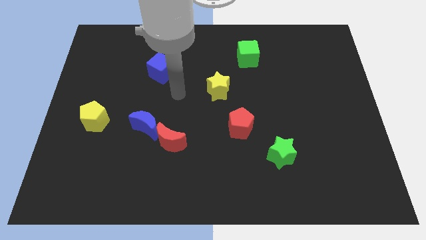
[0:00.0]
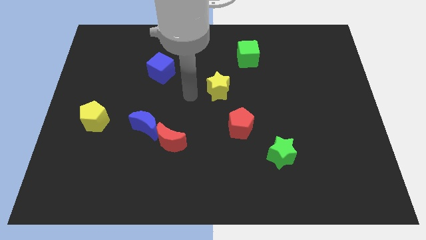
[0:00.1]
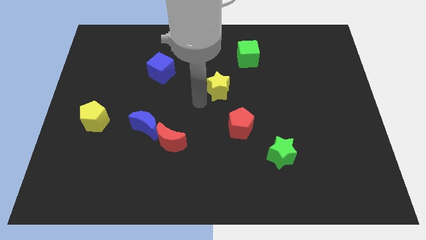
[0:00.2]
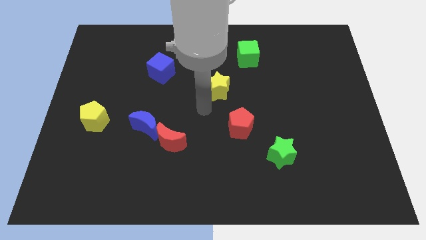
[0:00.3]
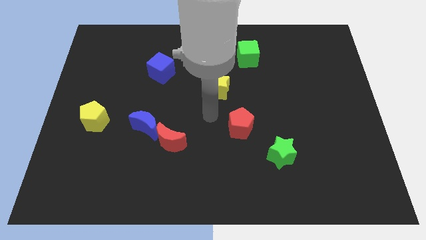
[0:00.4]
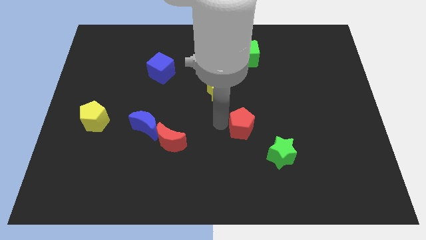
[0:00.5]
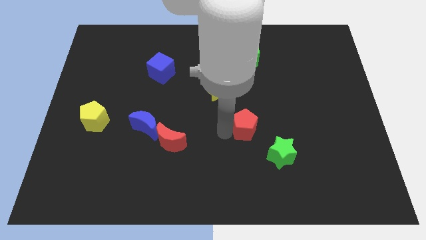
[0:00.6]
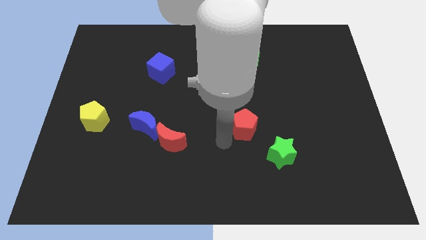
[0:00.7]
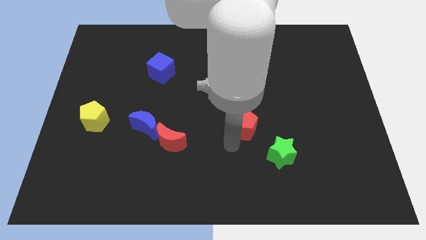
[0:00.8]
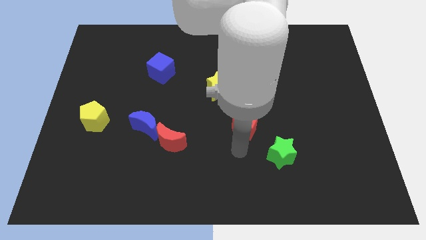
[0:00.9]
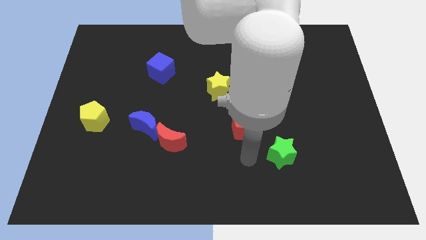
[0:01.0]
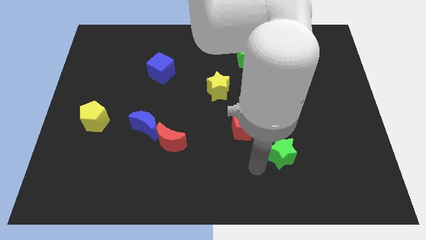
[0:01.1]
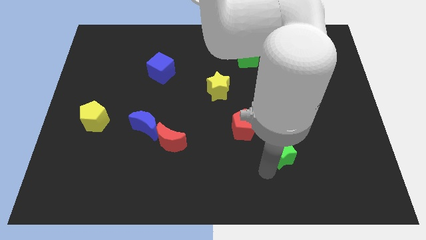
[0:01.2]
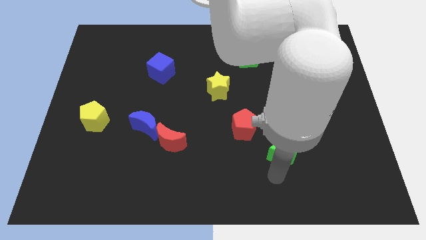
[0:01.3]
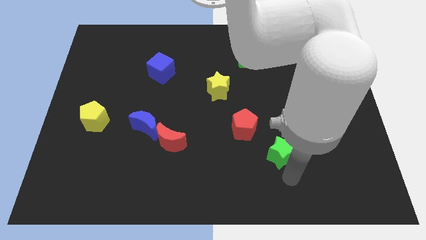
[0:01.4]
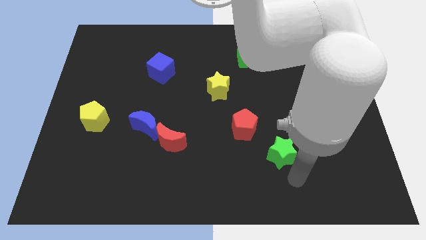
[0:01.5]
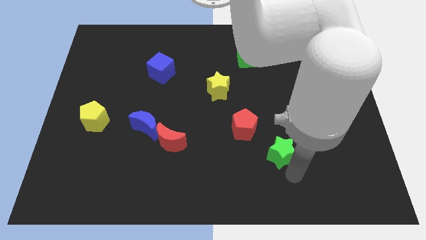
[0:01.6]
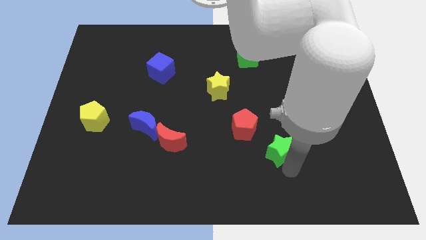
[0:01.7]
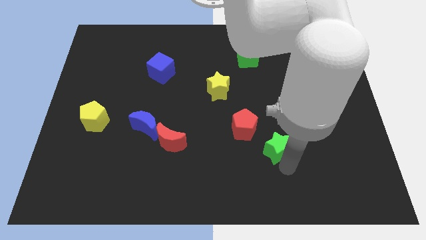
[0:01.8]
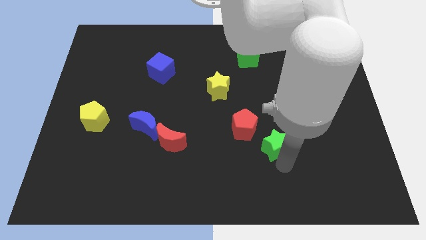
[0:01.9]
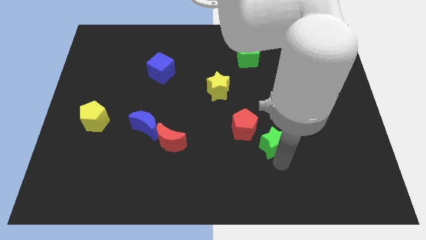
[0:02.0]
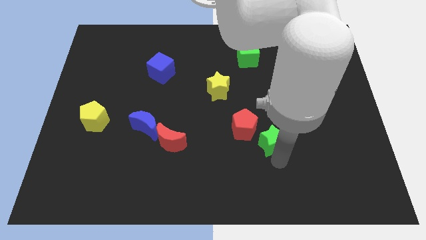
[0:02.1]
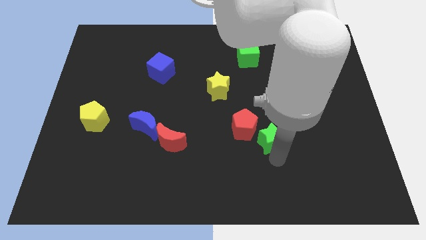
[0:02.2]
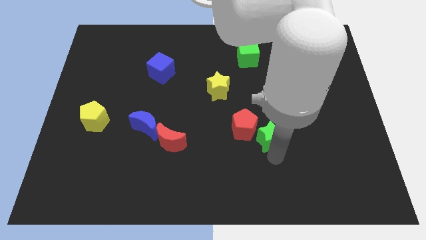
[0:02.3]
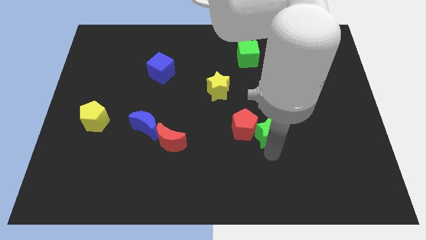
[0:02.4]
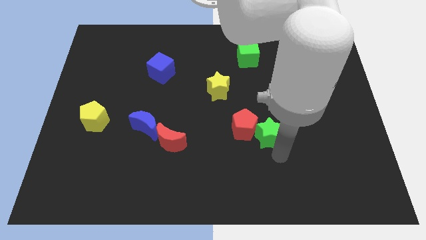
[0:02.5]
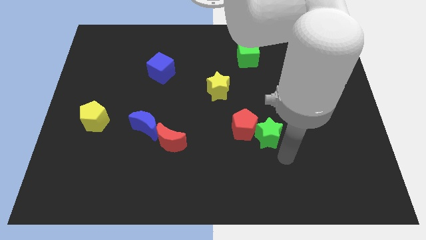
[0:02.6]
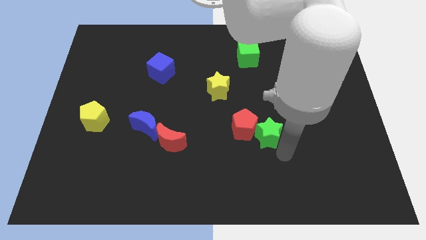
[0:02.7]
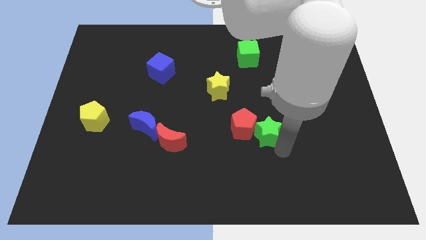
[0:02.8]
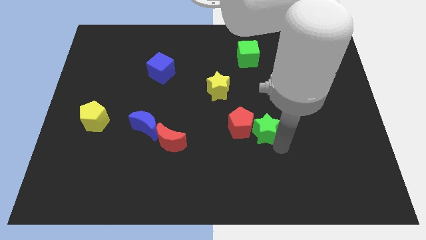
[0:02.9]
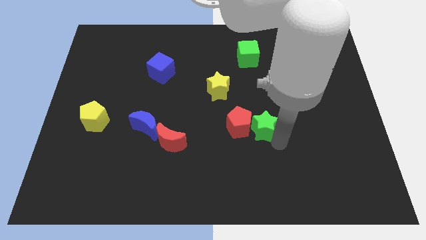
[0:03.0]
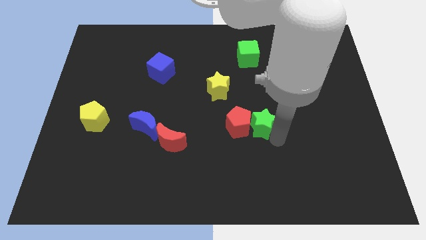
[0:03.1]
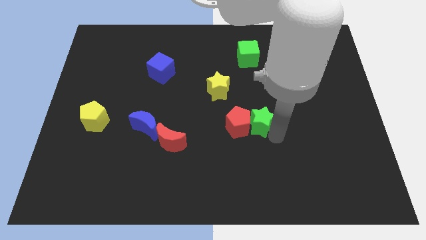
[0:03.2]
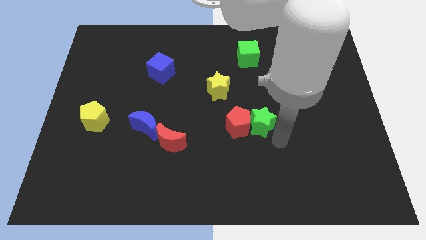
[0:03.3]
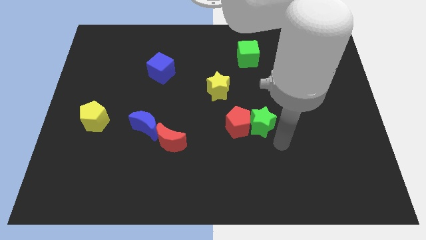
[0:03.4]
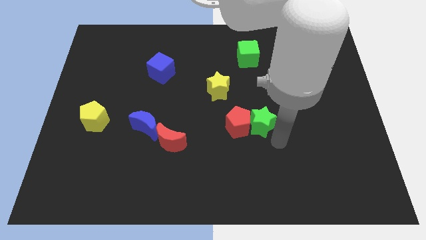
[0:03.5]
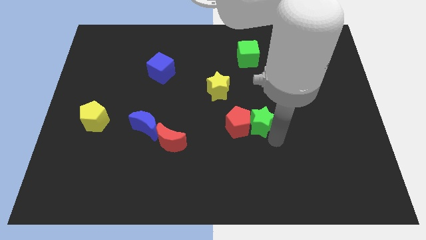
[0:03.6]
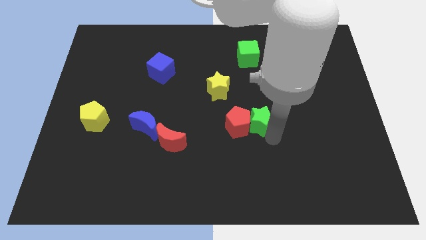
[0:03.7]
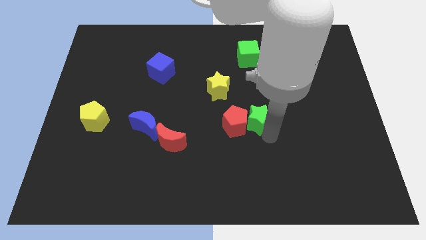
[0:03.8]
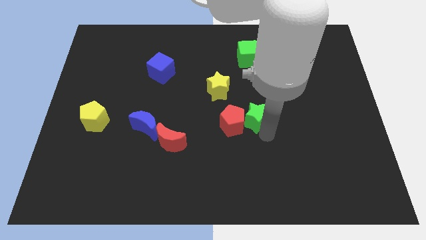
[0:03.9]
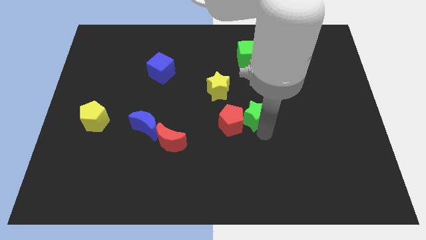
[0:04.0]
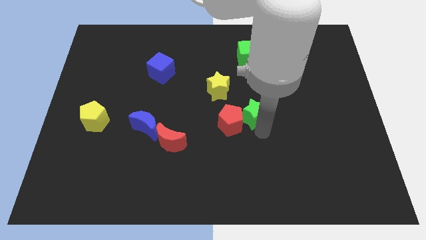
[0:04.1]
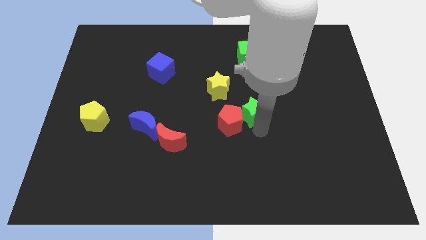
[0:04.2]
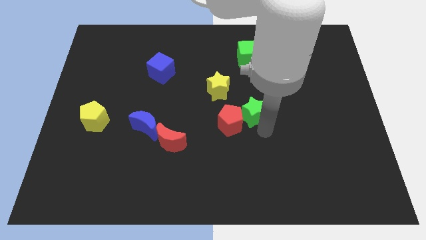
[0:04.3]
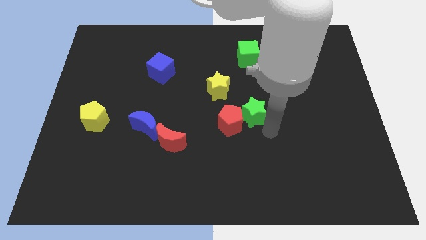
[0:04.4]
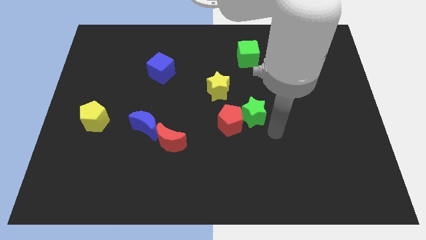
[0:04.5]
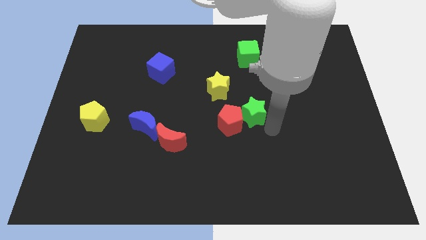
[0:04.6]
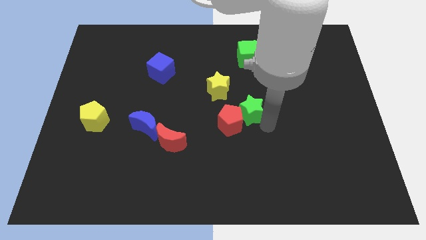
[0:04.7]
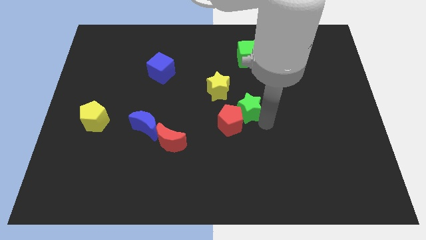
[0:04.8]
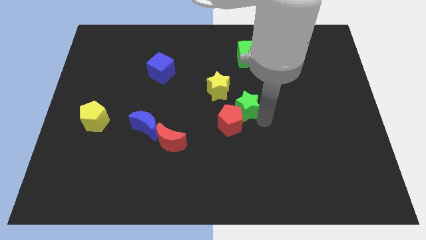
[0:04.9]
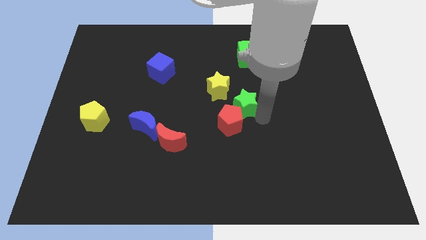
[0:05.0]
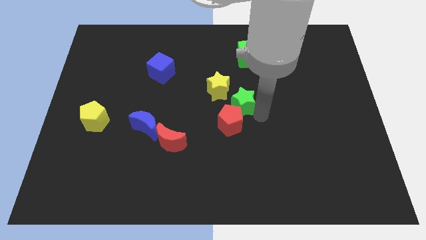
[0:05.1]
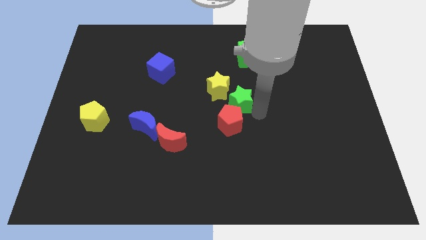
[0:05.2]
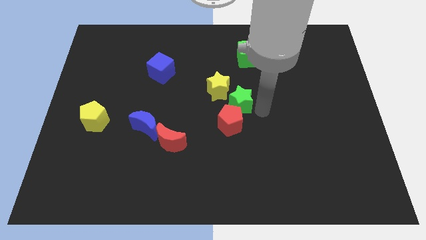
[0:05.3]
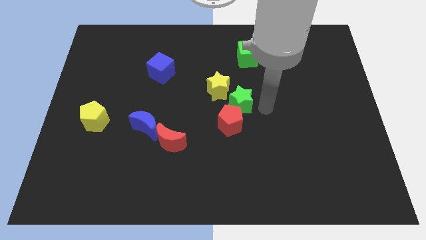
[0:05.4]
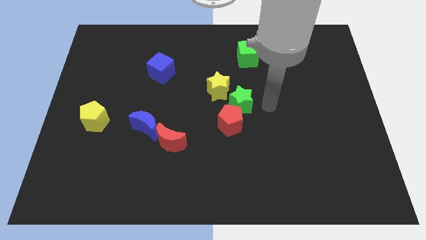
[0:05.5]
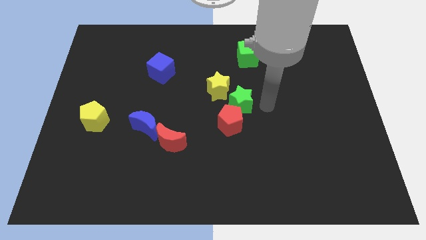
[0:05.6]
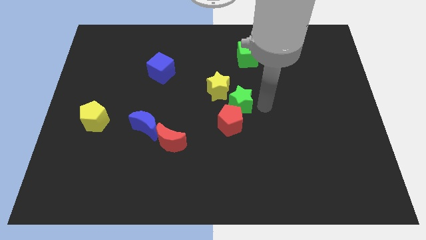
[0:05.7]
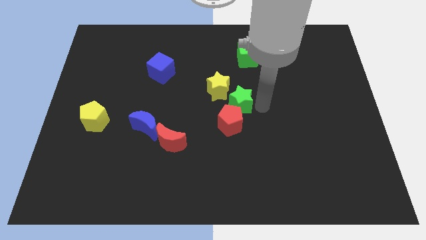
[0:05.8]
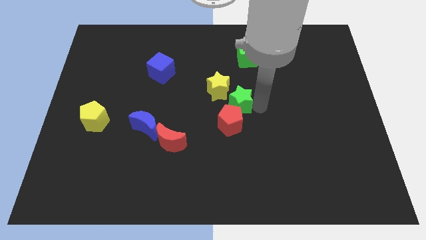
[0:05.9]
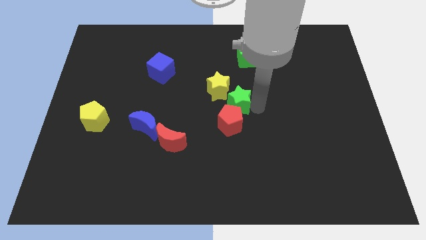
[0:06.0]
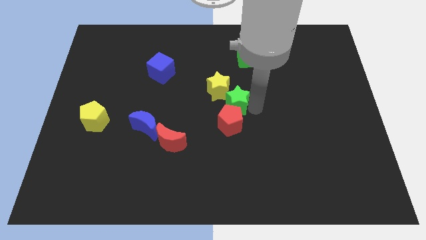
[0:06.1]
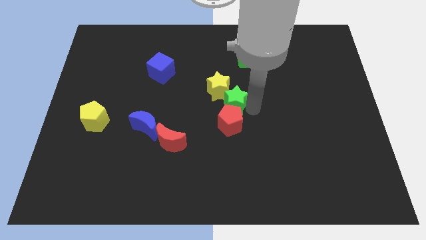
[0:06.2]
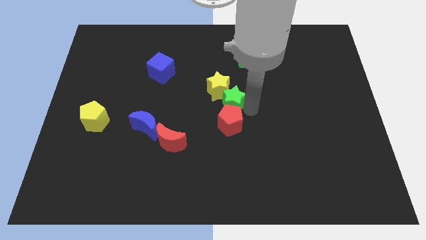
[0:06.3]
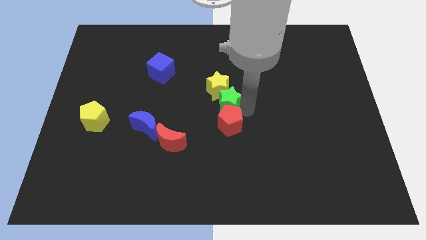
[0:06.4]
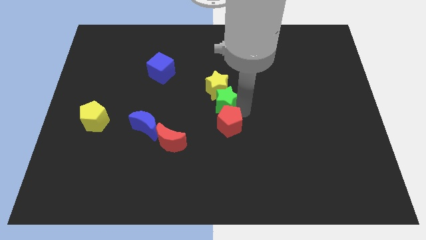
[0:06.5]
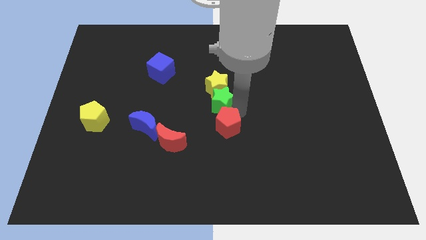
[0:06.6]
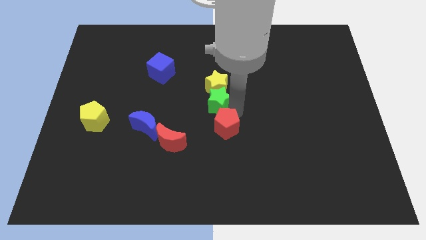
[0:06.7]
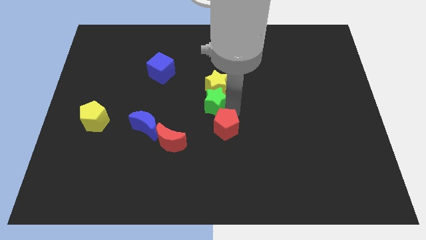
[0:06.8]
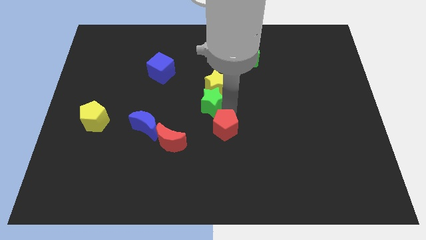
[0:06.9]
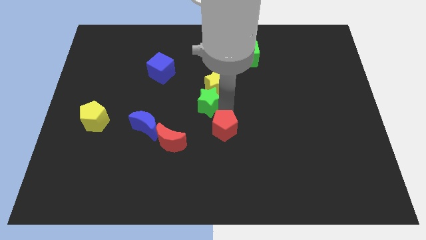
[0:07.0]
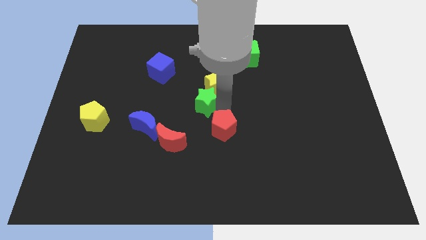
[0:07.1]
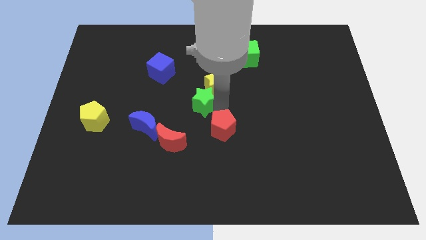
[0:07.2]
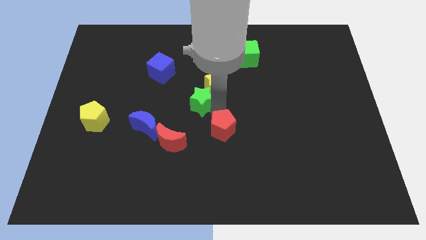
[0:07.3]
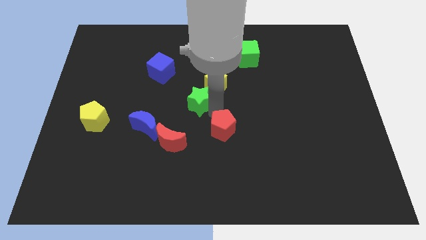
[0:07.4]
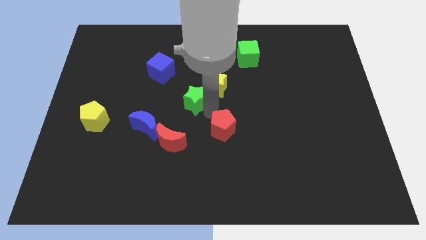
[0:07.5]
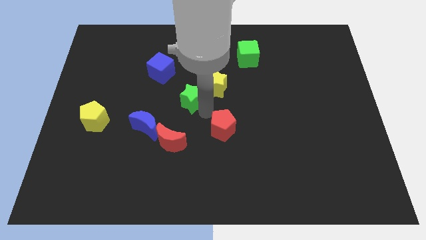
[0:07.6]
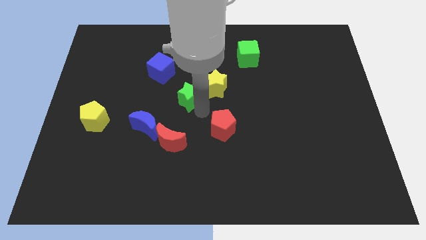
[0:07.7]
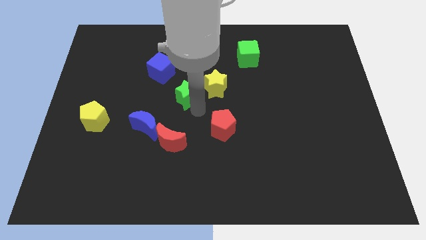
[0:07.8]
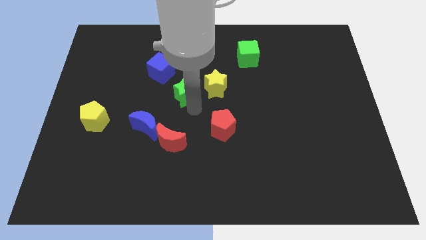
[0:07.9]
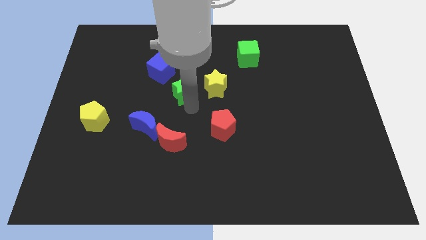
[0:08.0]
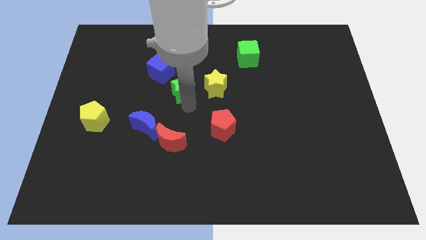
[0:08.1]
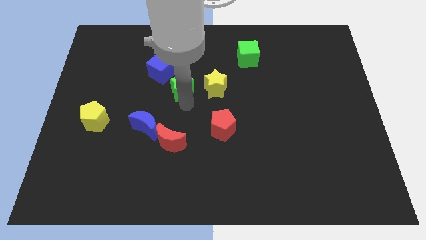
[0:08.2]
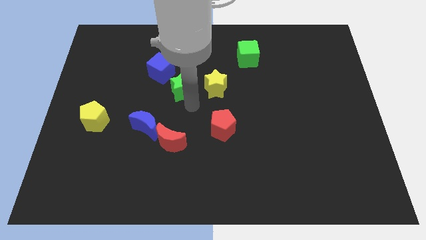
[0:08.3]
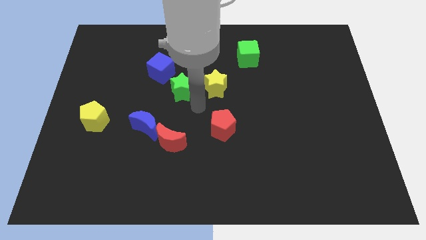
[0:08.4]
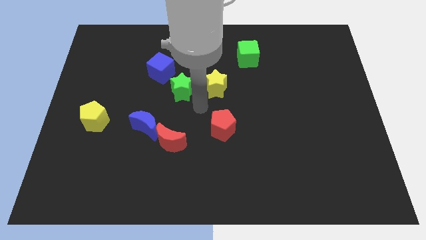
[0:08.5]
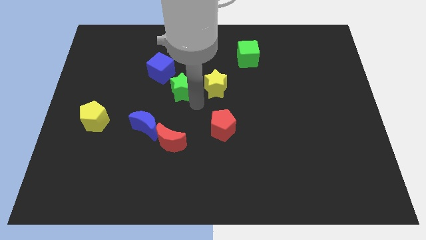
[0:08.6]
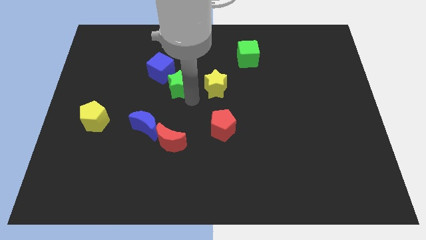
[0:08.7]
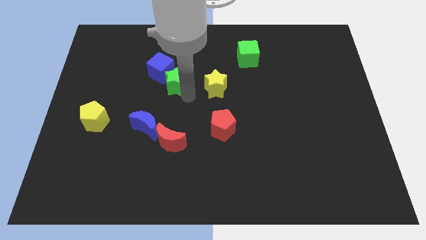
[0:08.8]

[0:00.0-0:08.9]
put the green star close to the blue cube
